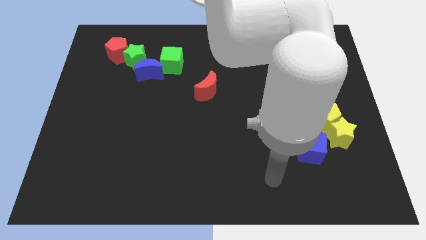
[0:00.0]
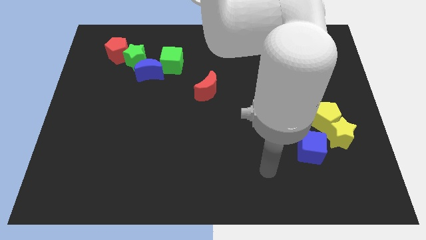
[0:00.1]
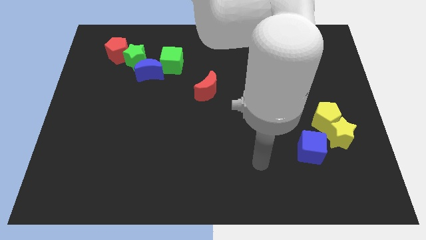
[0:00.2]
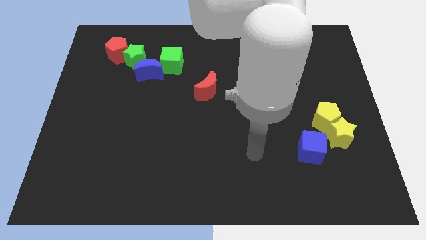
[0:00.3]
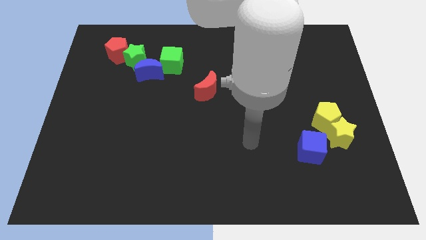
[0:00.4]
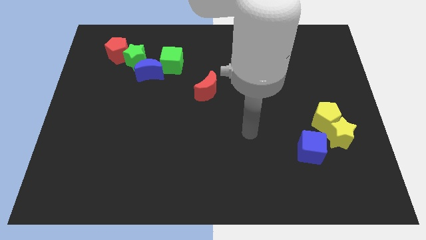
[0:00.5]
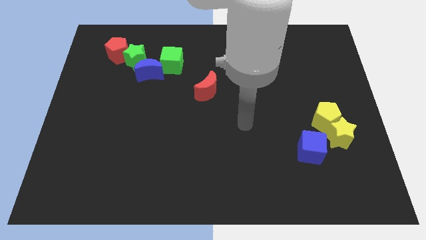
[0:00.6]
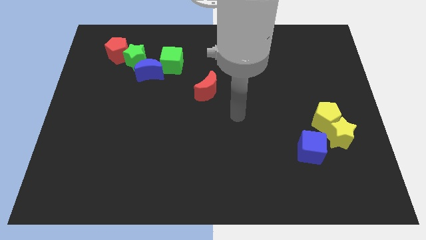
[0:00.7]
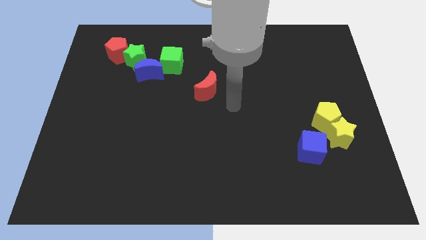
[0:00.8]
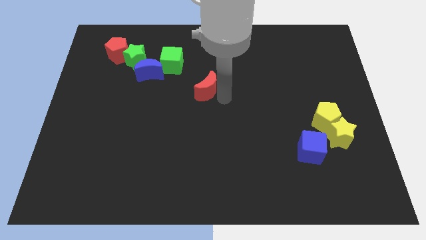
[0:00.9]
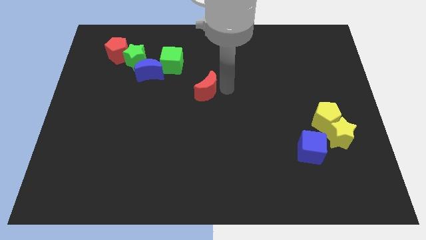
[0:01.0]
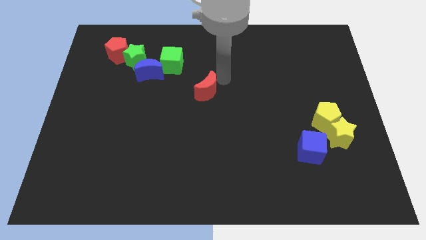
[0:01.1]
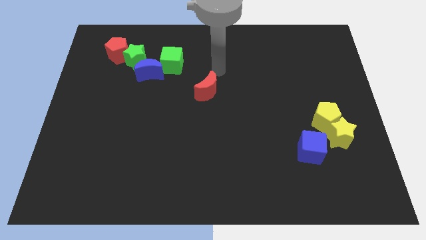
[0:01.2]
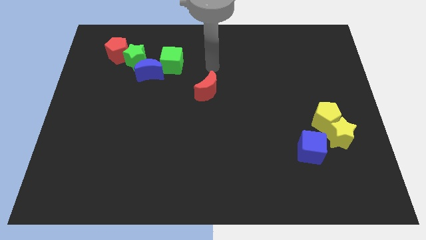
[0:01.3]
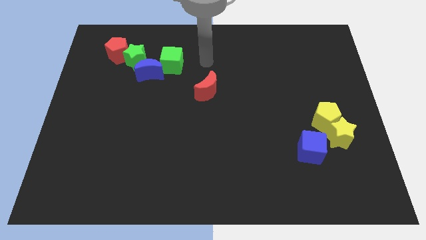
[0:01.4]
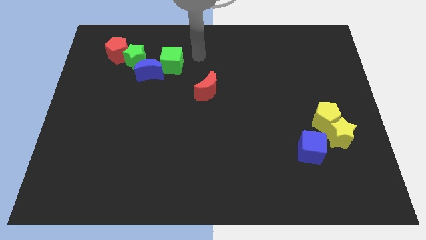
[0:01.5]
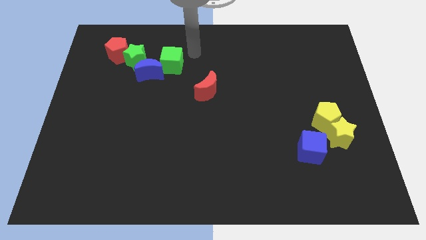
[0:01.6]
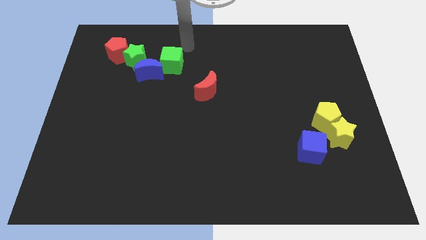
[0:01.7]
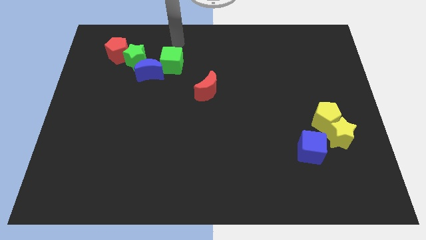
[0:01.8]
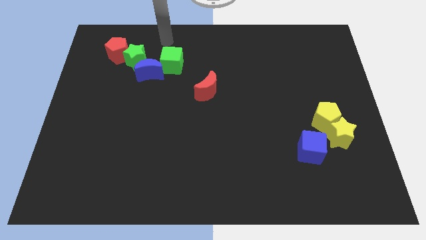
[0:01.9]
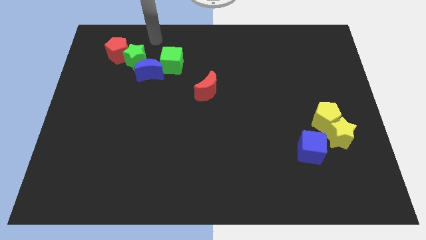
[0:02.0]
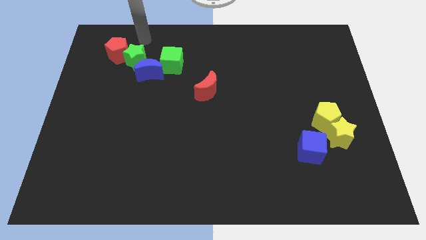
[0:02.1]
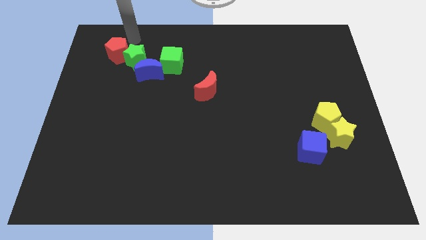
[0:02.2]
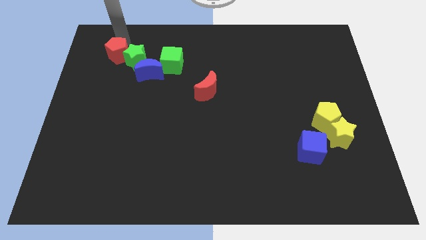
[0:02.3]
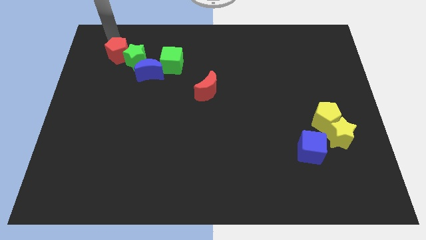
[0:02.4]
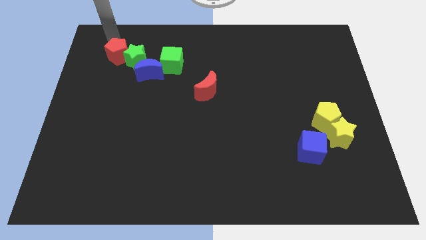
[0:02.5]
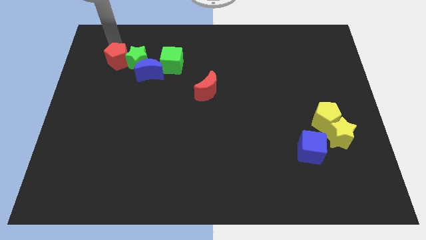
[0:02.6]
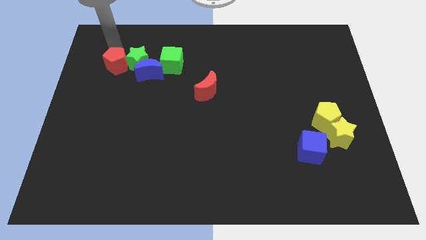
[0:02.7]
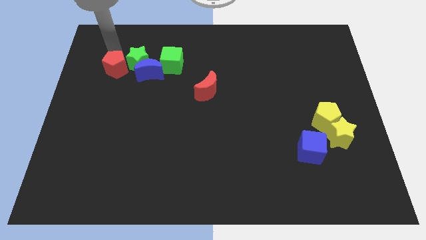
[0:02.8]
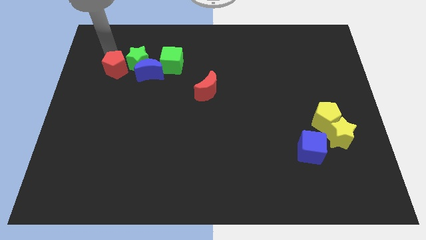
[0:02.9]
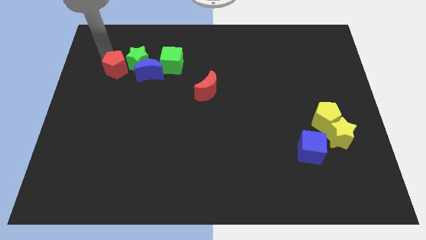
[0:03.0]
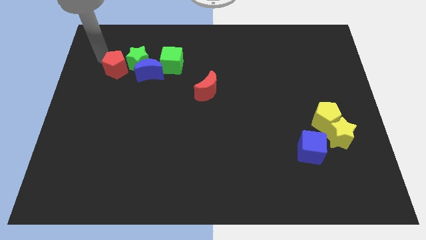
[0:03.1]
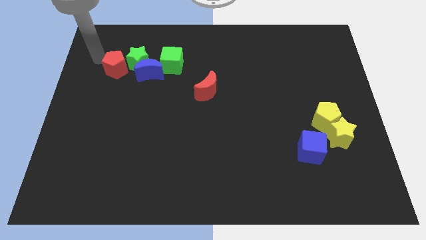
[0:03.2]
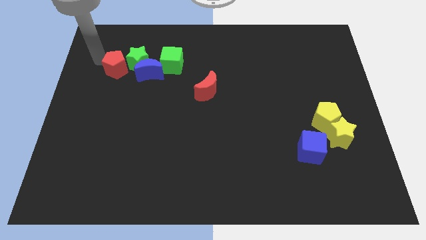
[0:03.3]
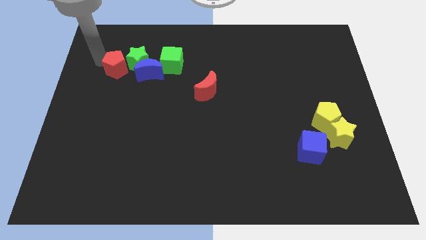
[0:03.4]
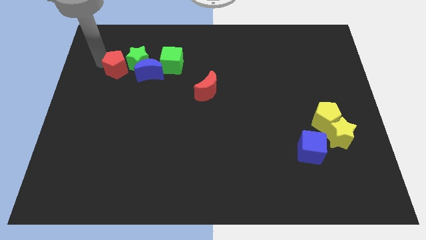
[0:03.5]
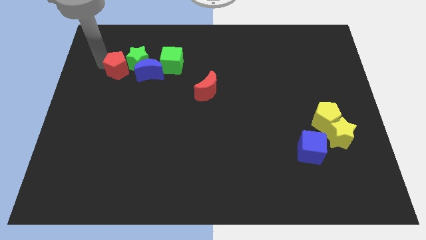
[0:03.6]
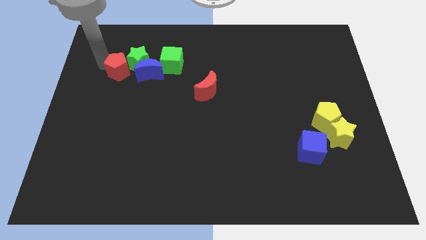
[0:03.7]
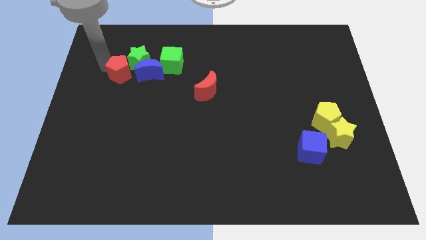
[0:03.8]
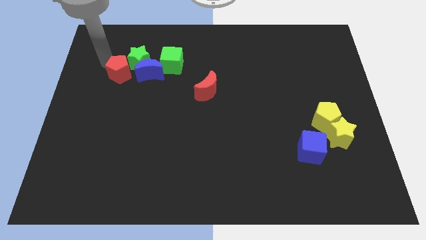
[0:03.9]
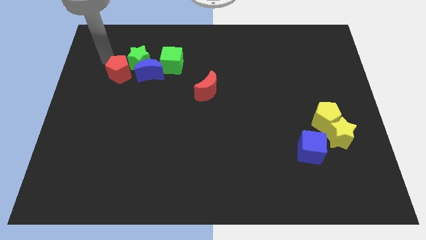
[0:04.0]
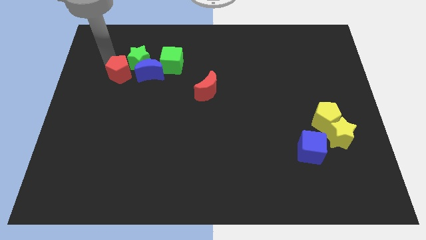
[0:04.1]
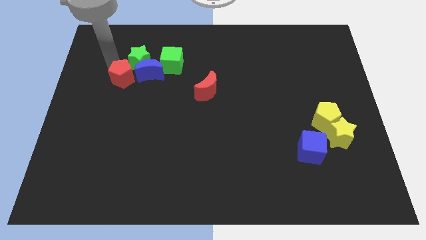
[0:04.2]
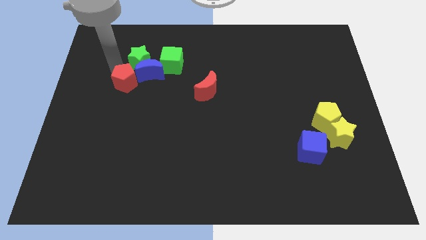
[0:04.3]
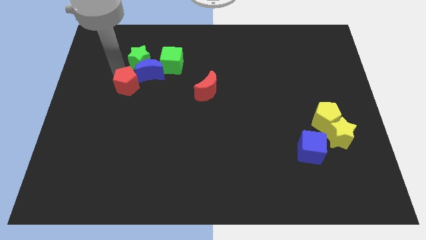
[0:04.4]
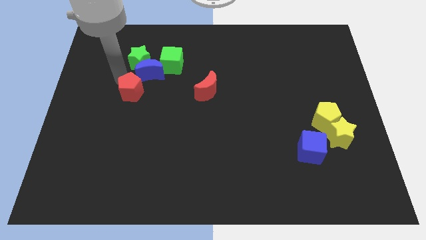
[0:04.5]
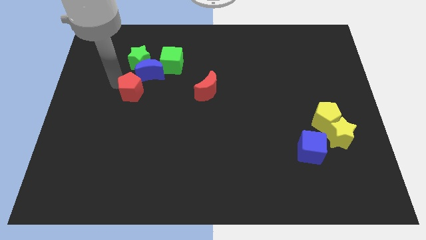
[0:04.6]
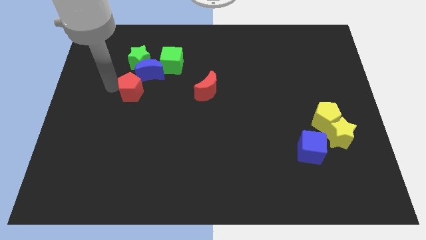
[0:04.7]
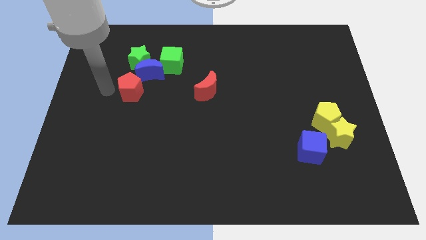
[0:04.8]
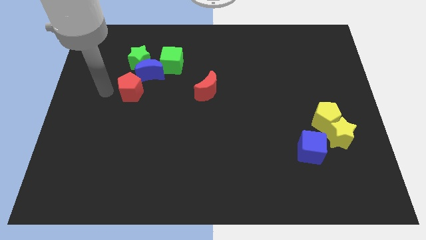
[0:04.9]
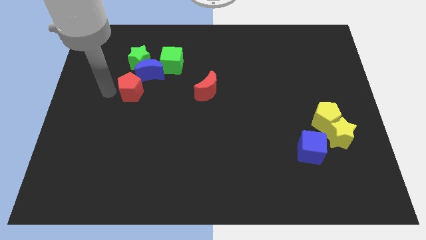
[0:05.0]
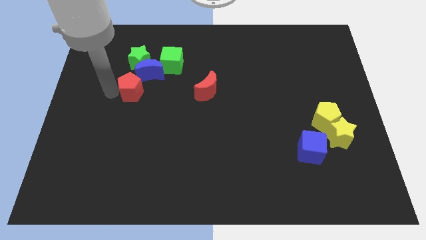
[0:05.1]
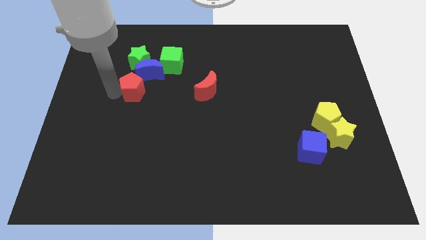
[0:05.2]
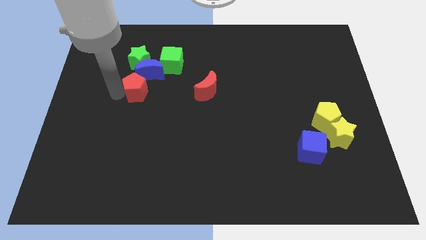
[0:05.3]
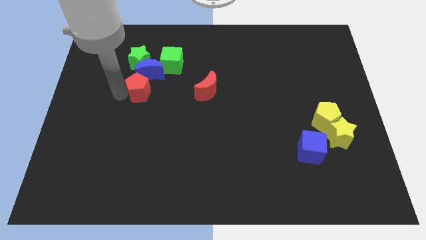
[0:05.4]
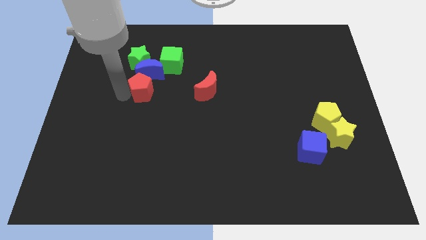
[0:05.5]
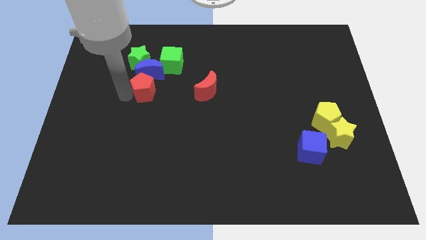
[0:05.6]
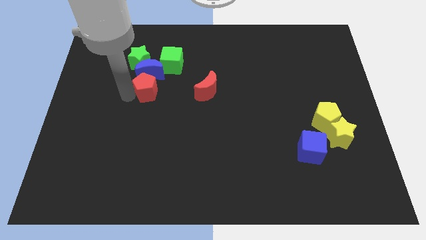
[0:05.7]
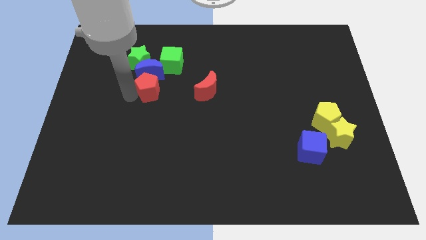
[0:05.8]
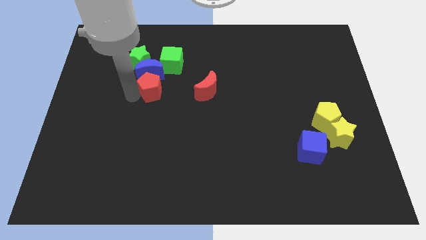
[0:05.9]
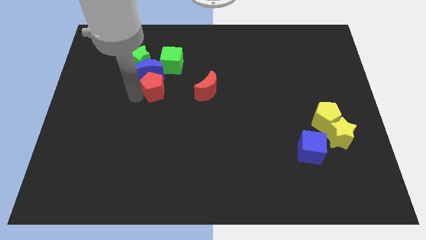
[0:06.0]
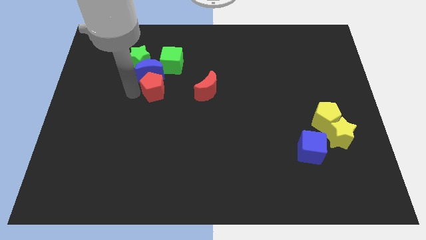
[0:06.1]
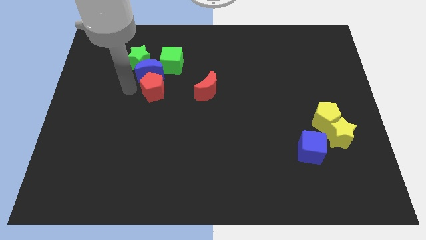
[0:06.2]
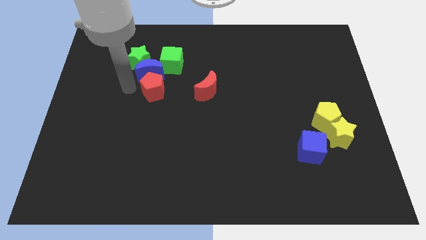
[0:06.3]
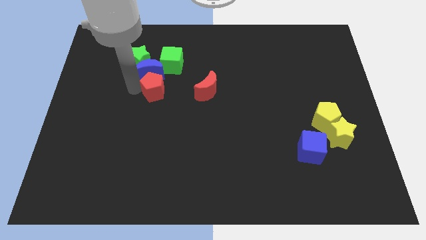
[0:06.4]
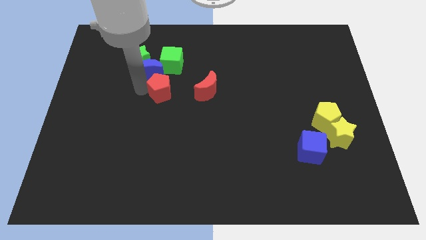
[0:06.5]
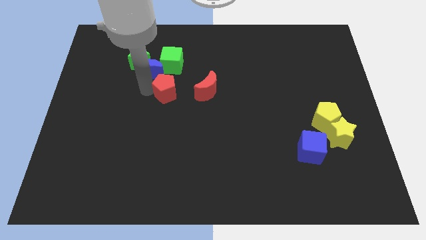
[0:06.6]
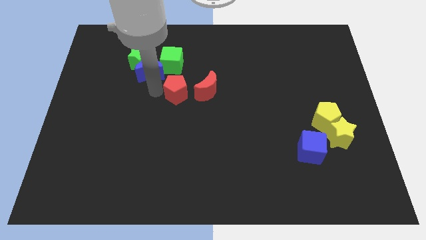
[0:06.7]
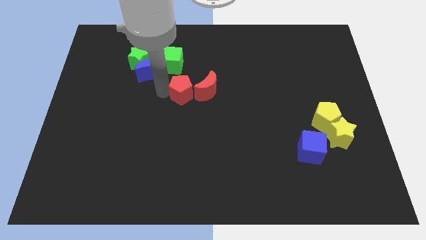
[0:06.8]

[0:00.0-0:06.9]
push the red pentagon close to the red moon

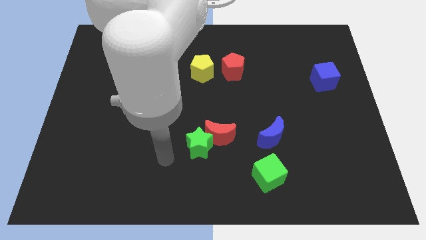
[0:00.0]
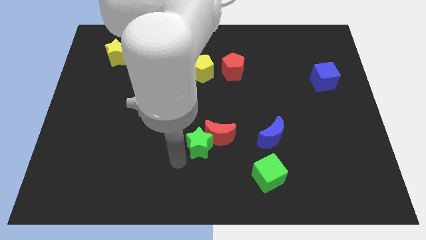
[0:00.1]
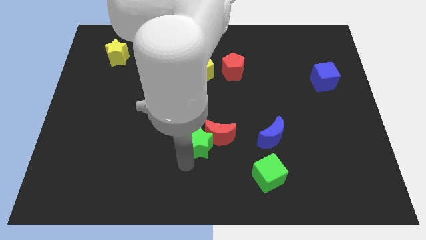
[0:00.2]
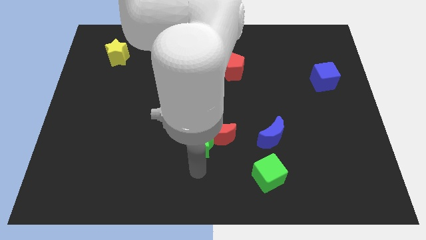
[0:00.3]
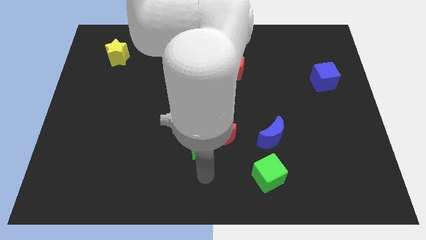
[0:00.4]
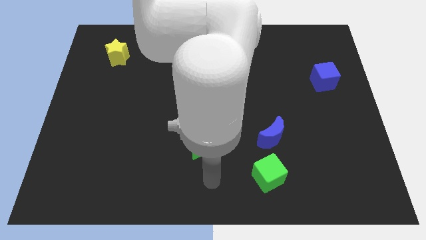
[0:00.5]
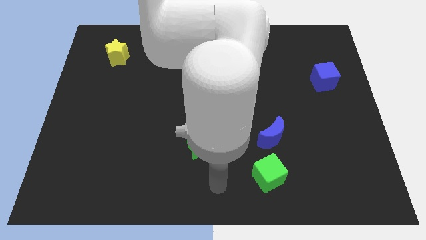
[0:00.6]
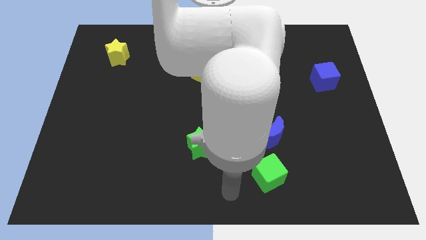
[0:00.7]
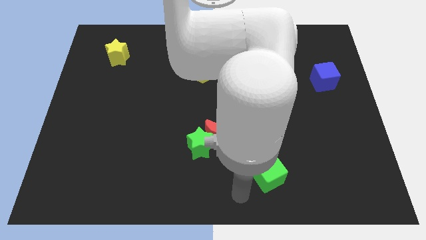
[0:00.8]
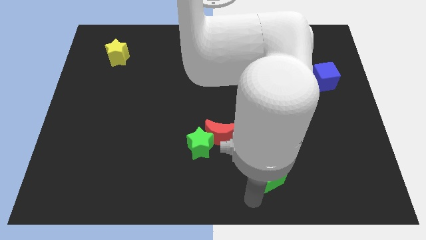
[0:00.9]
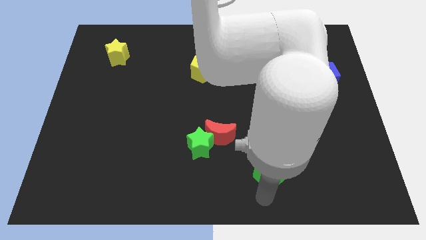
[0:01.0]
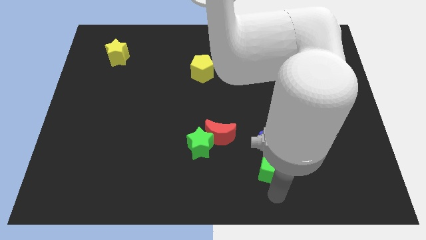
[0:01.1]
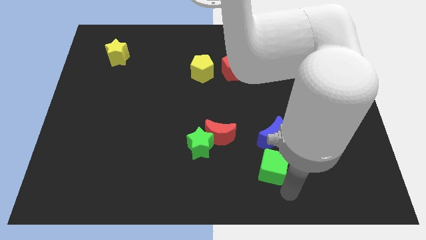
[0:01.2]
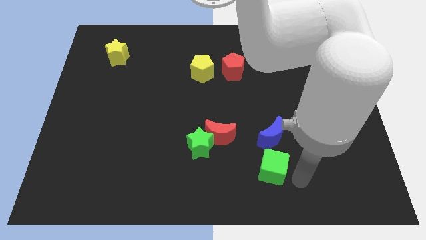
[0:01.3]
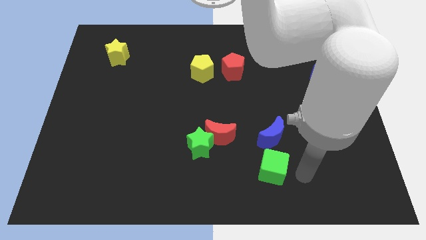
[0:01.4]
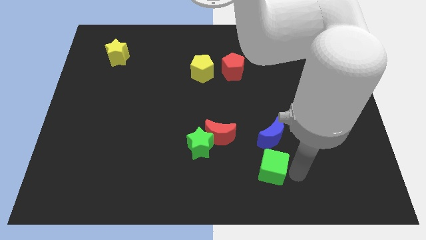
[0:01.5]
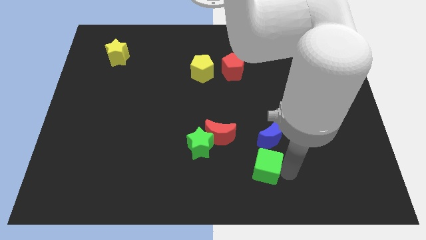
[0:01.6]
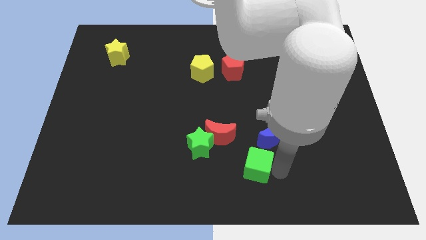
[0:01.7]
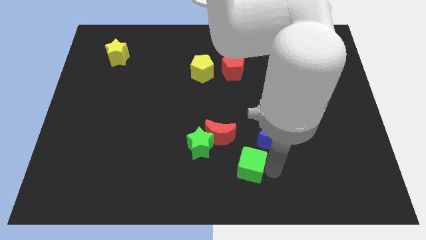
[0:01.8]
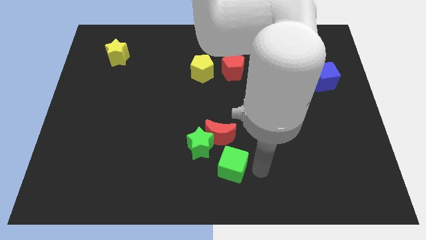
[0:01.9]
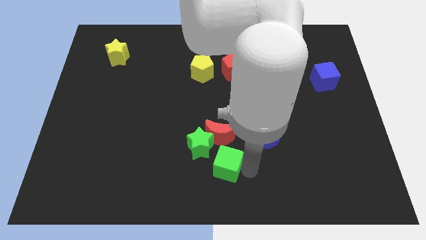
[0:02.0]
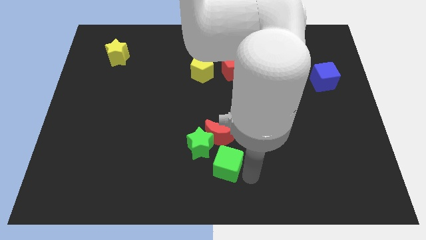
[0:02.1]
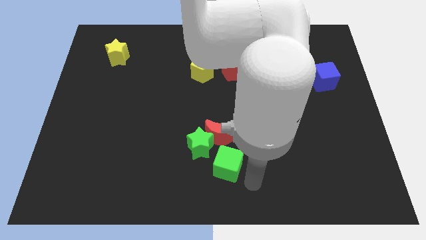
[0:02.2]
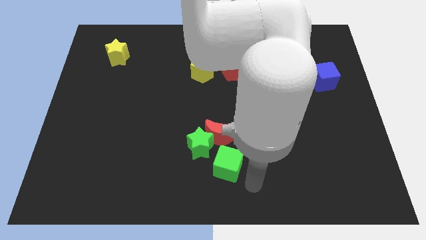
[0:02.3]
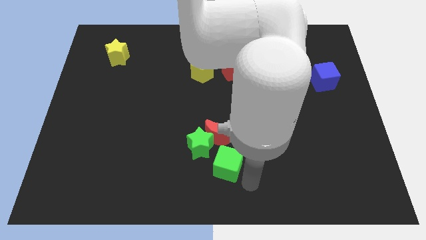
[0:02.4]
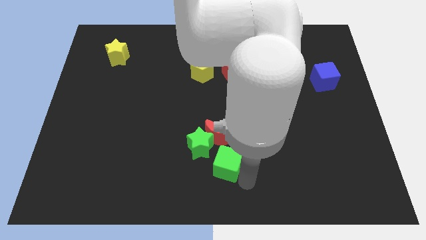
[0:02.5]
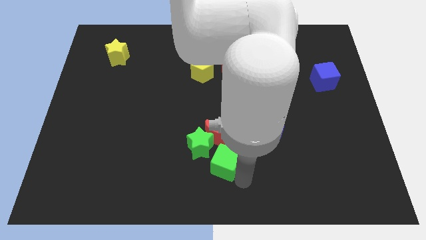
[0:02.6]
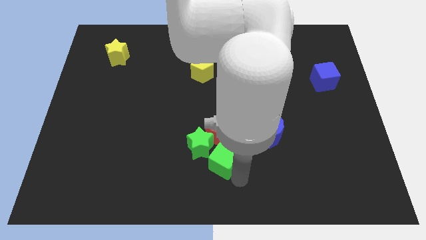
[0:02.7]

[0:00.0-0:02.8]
move the green cube next to the green star
